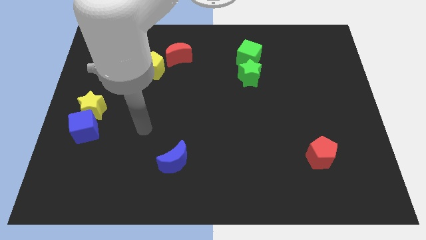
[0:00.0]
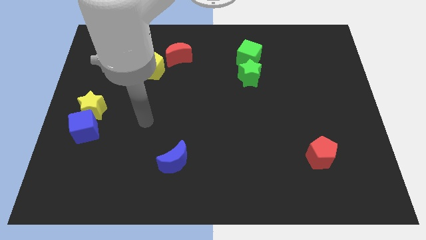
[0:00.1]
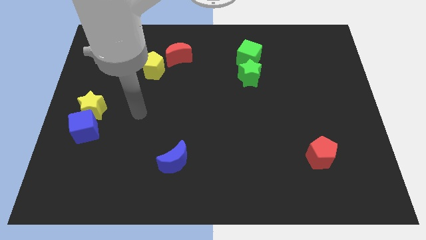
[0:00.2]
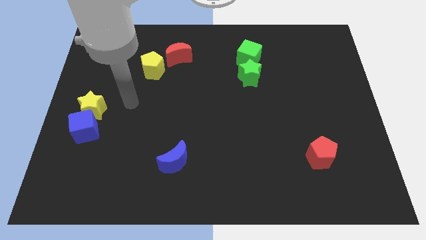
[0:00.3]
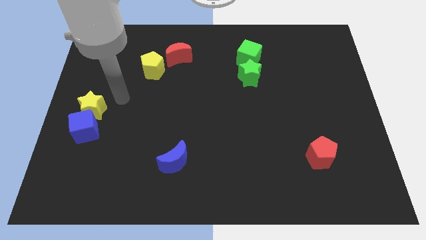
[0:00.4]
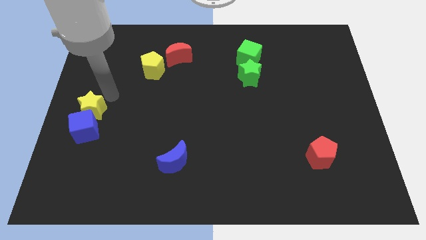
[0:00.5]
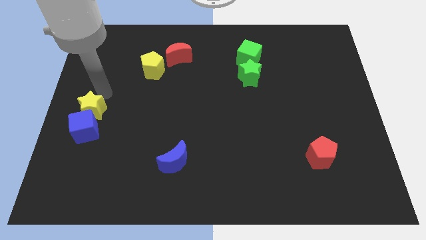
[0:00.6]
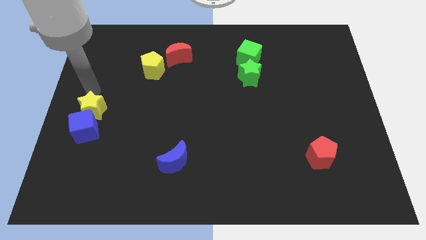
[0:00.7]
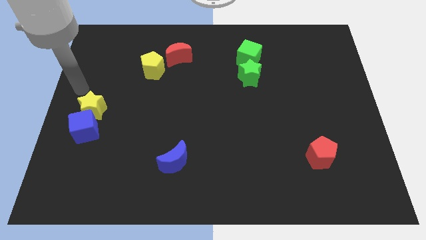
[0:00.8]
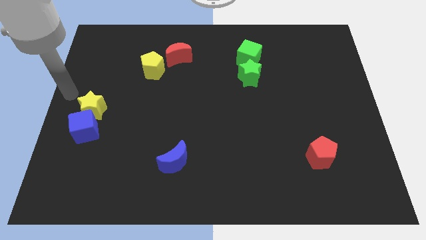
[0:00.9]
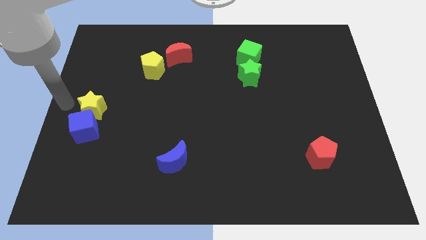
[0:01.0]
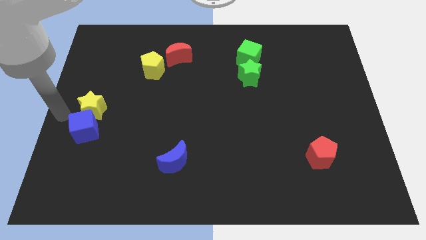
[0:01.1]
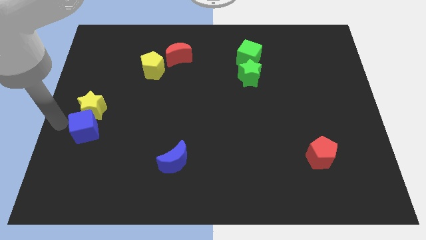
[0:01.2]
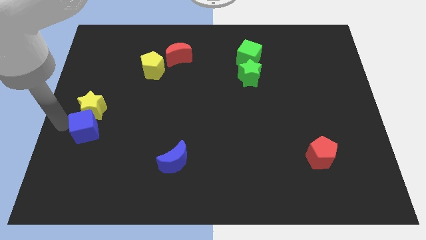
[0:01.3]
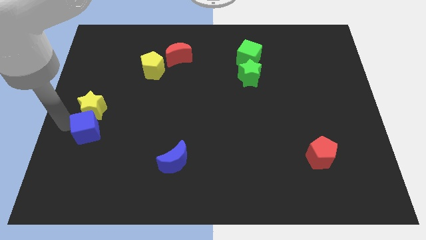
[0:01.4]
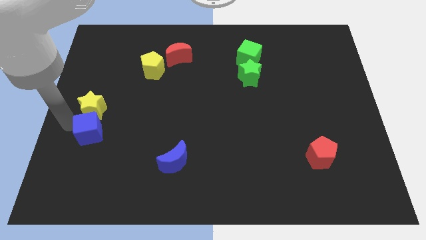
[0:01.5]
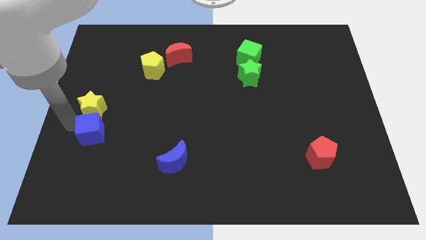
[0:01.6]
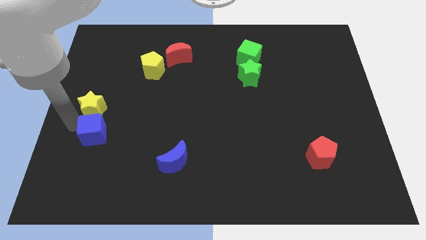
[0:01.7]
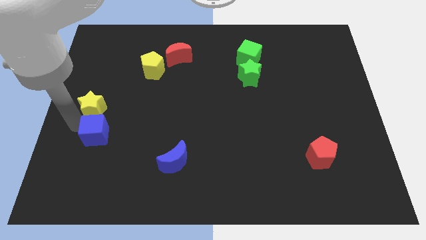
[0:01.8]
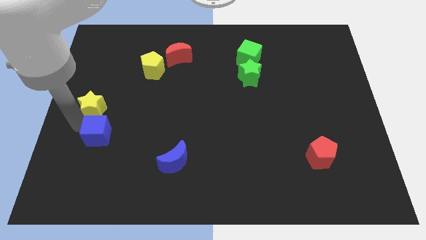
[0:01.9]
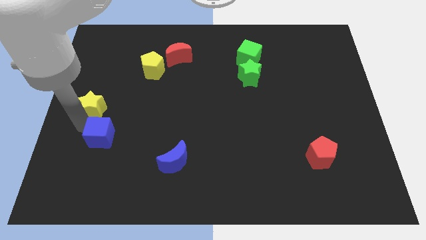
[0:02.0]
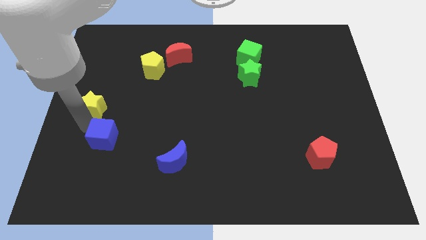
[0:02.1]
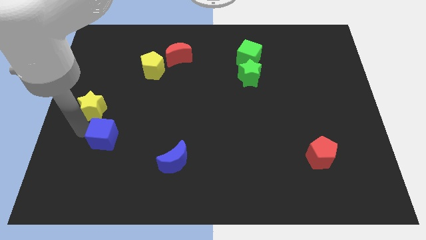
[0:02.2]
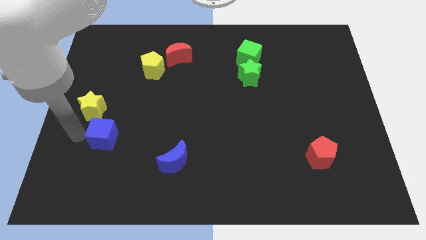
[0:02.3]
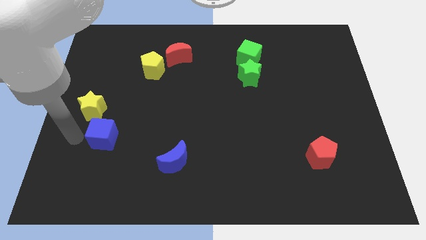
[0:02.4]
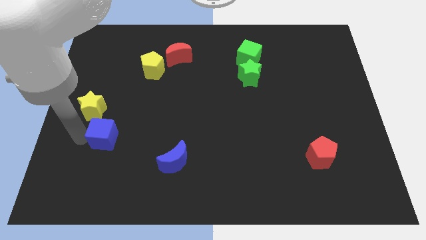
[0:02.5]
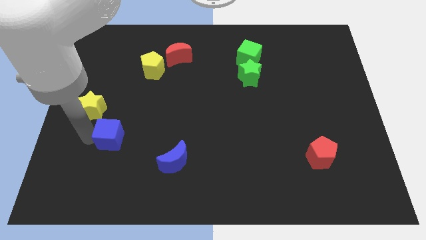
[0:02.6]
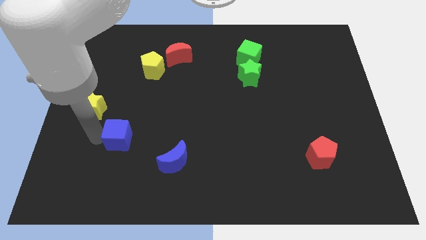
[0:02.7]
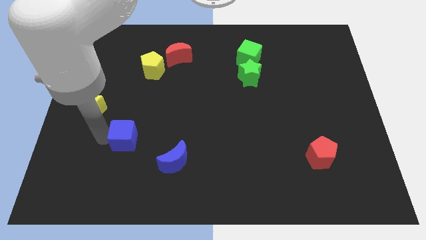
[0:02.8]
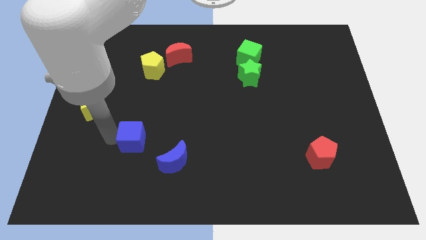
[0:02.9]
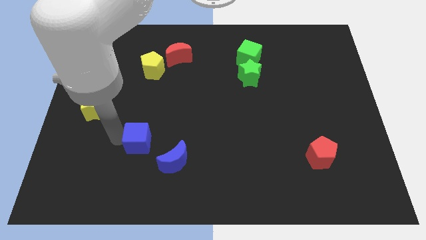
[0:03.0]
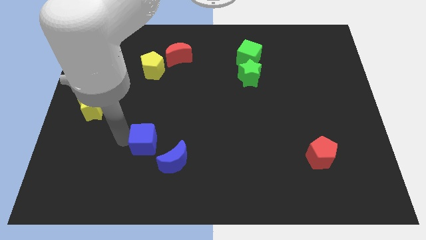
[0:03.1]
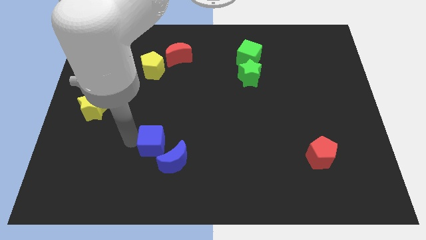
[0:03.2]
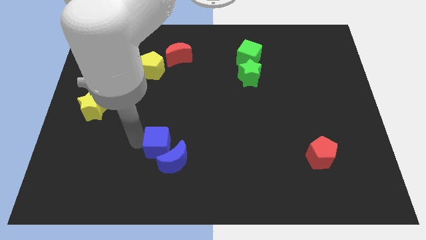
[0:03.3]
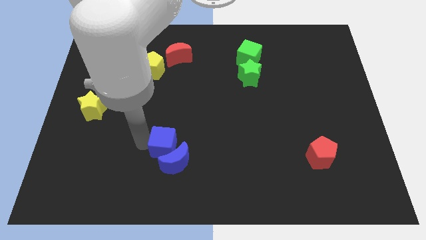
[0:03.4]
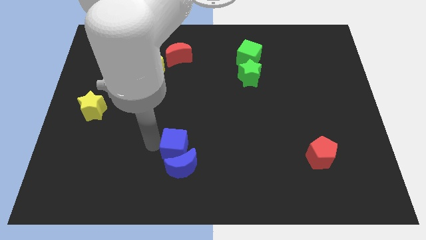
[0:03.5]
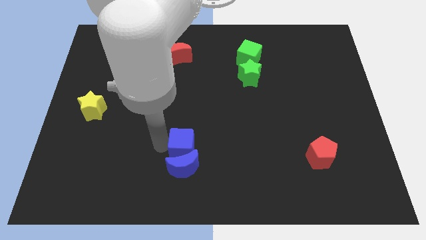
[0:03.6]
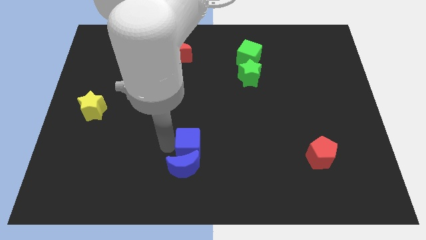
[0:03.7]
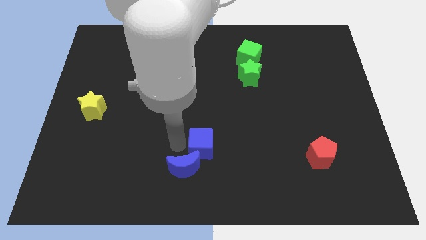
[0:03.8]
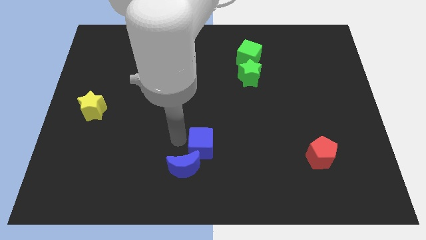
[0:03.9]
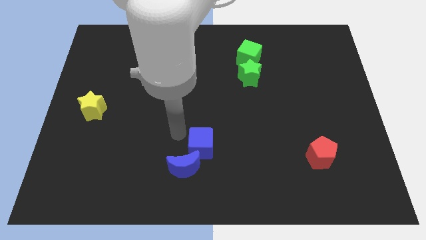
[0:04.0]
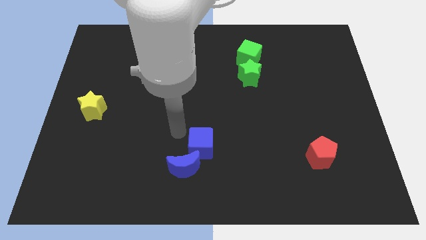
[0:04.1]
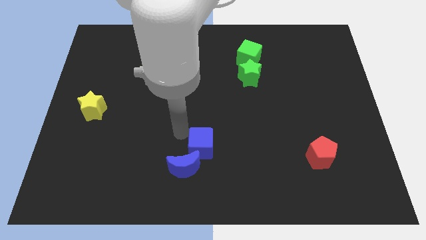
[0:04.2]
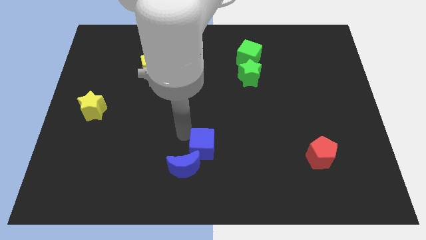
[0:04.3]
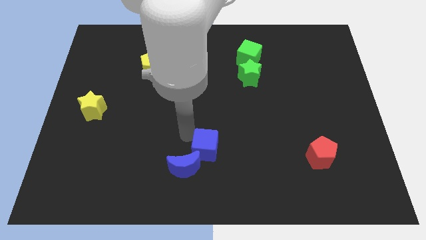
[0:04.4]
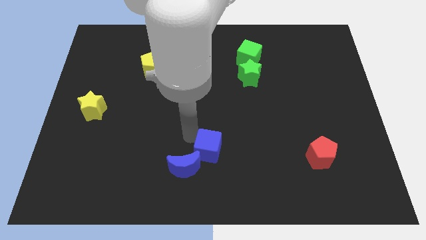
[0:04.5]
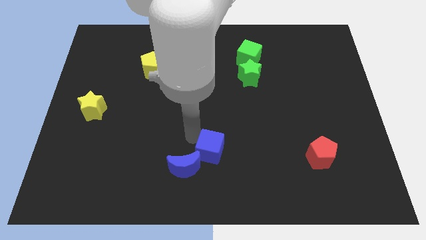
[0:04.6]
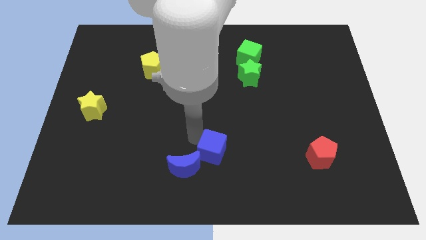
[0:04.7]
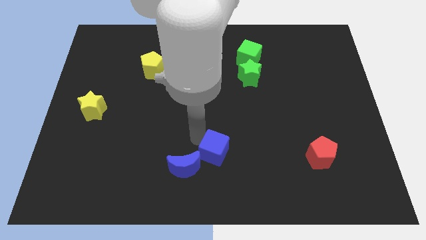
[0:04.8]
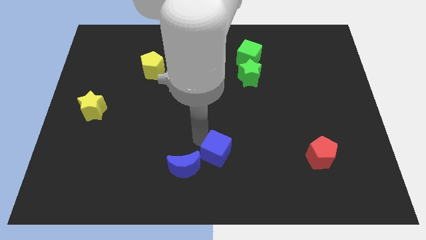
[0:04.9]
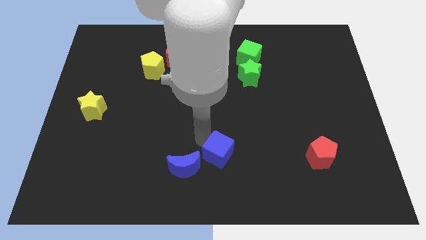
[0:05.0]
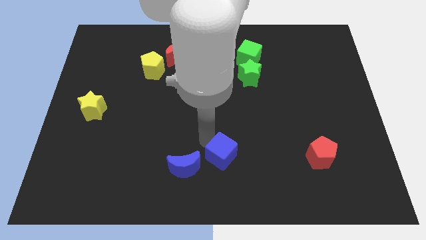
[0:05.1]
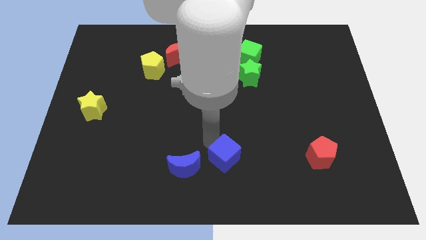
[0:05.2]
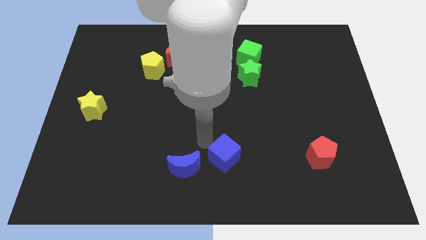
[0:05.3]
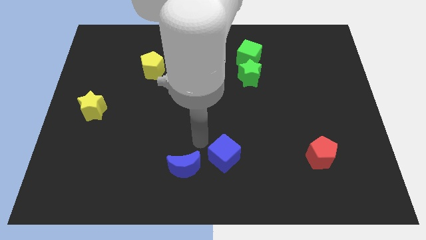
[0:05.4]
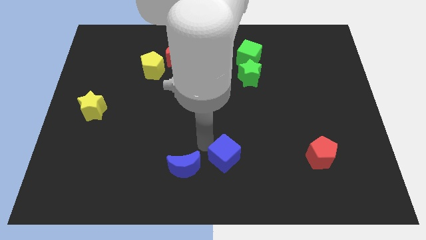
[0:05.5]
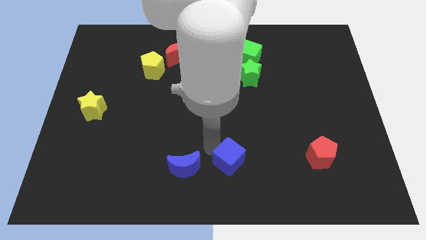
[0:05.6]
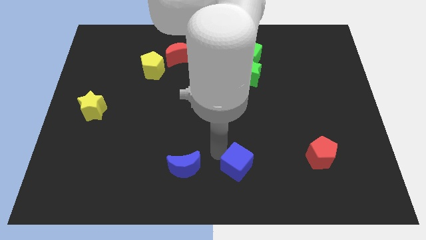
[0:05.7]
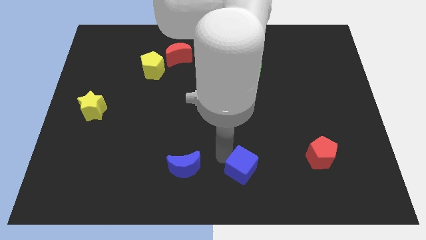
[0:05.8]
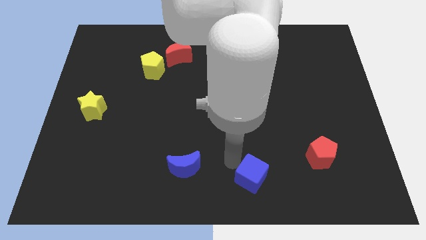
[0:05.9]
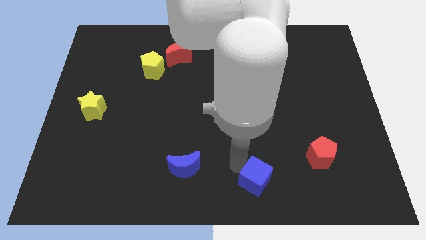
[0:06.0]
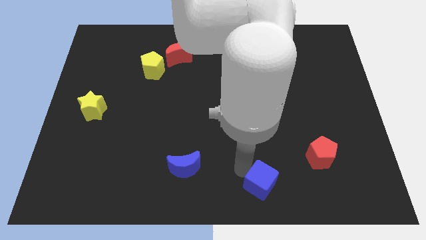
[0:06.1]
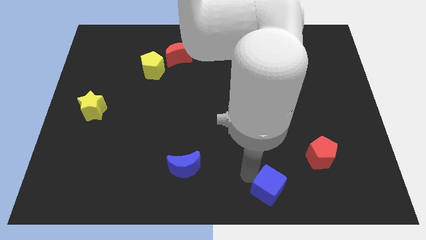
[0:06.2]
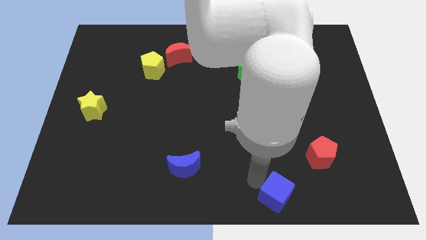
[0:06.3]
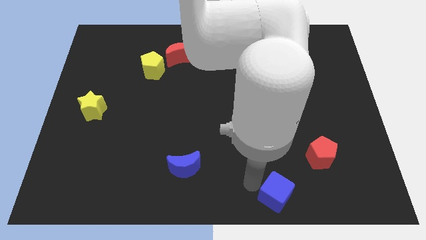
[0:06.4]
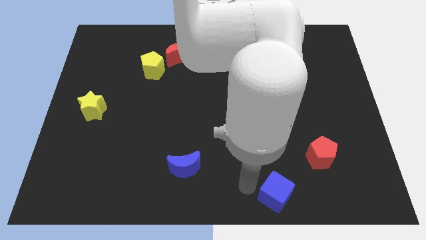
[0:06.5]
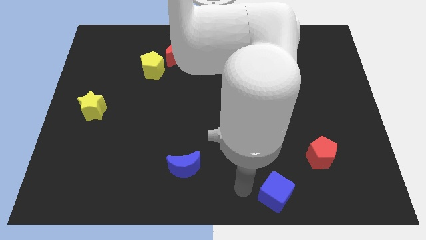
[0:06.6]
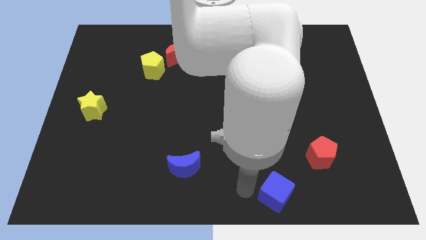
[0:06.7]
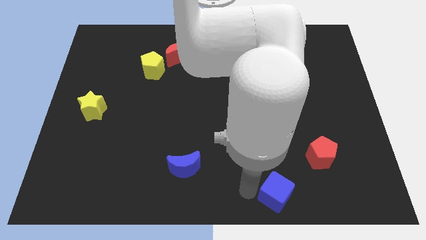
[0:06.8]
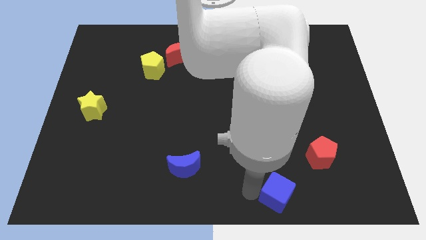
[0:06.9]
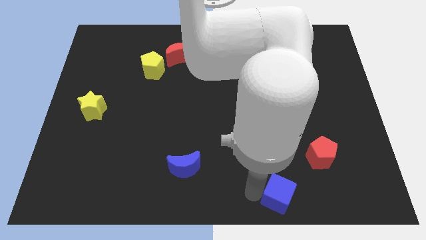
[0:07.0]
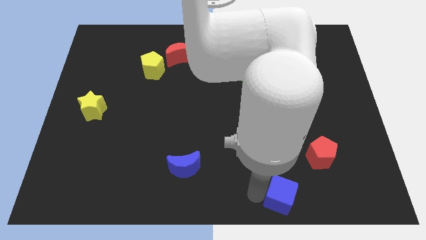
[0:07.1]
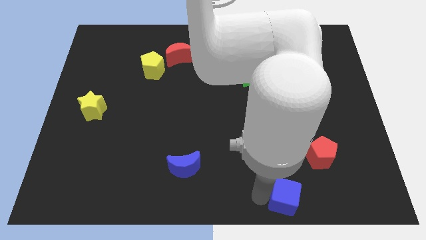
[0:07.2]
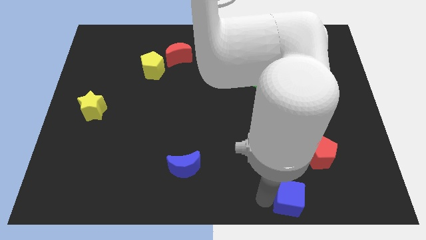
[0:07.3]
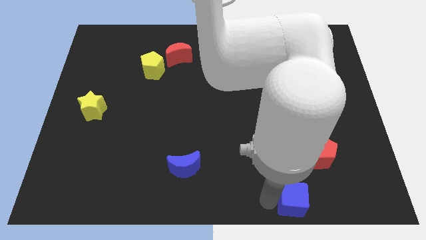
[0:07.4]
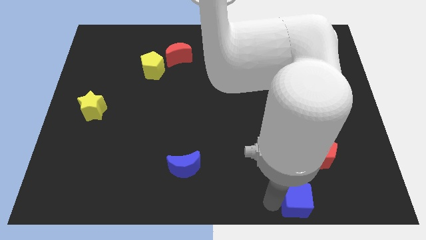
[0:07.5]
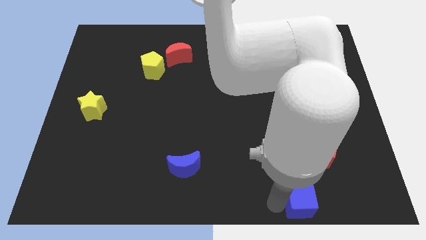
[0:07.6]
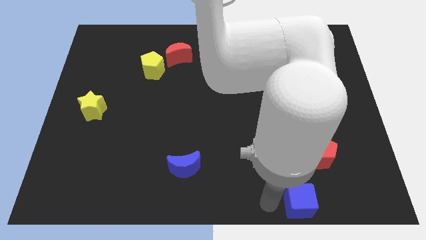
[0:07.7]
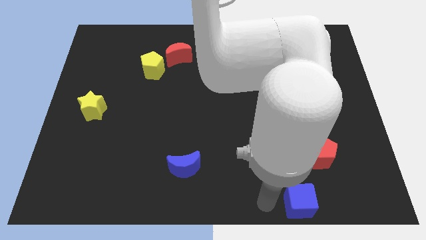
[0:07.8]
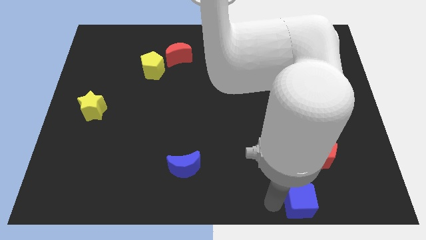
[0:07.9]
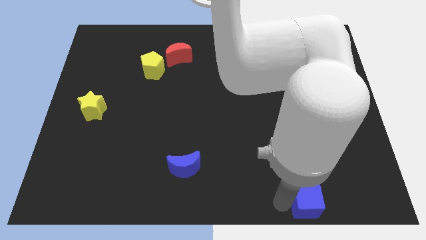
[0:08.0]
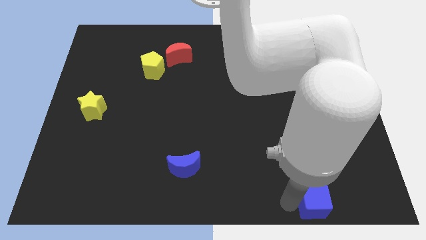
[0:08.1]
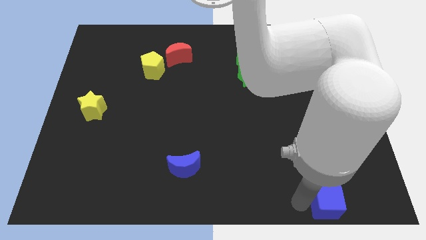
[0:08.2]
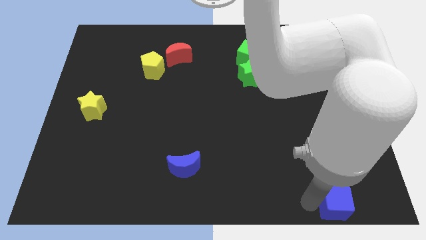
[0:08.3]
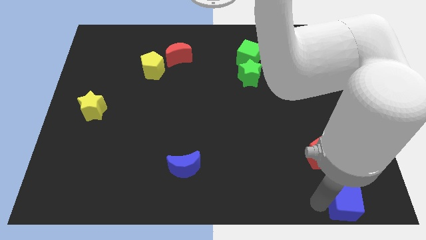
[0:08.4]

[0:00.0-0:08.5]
move the blue cube to the bottom right
